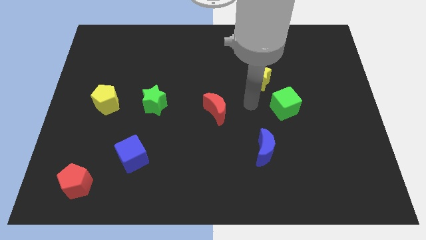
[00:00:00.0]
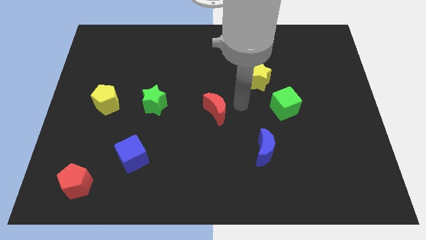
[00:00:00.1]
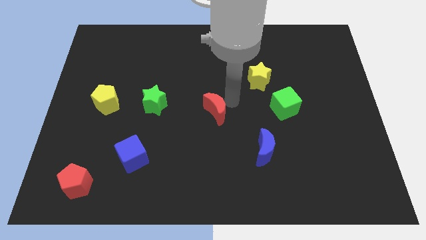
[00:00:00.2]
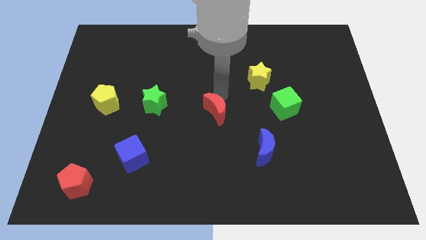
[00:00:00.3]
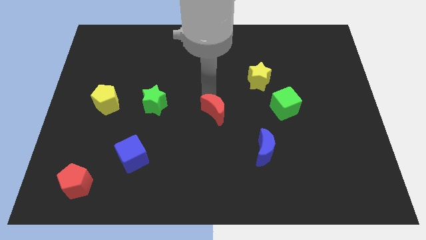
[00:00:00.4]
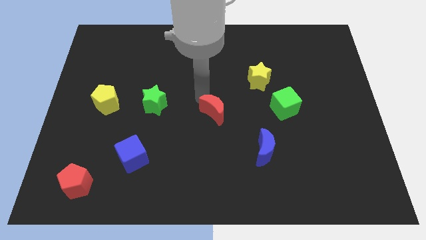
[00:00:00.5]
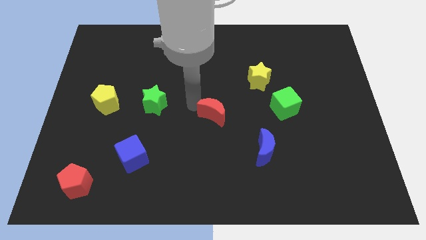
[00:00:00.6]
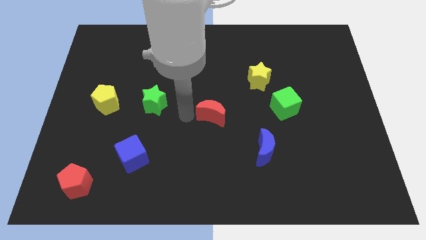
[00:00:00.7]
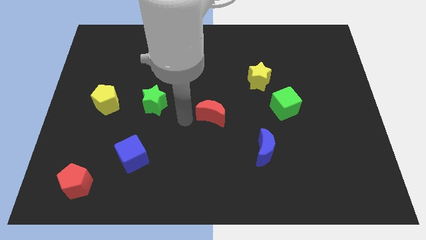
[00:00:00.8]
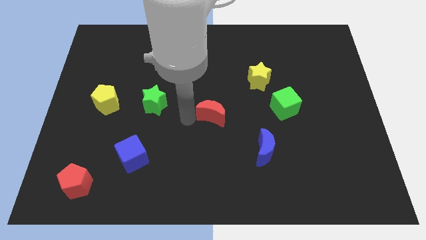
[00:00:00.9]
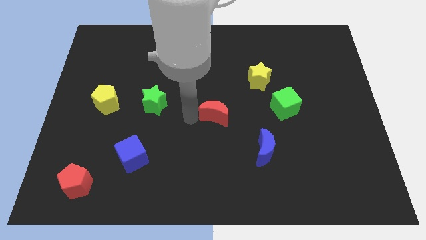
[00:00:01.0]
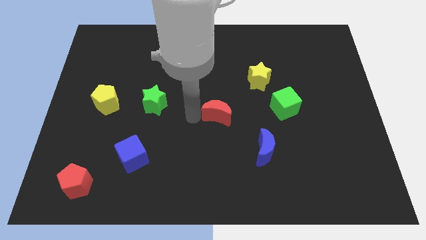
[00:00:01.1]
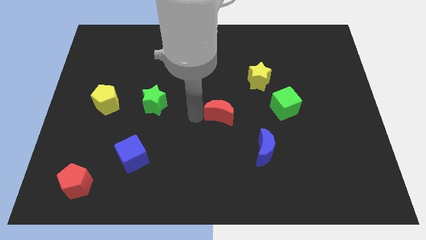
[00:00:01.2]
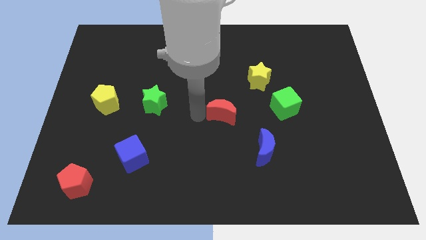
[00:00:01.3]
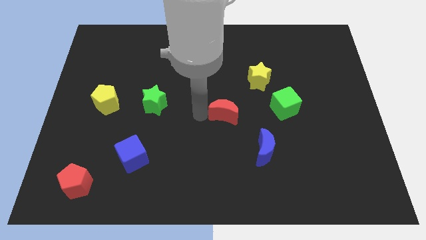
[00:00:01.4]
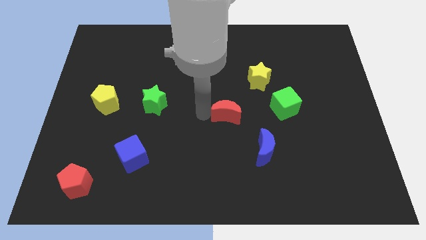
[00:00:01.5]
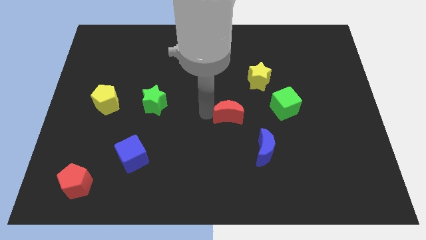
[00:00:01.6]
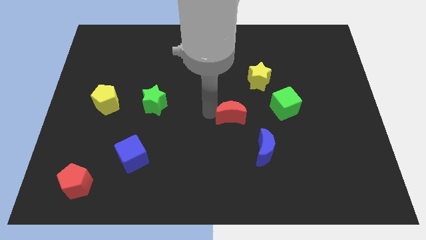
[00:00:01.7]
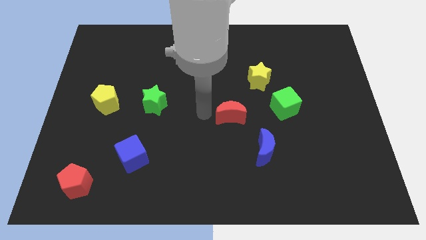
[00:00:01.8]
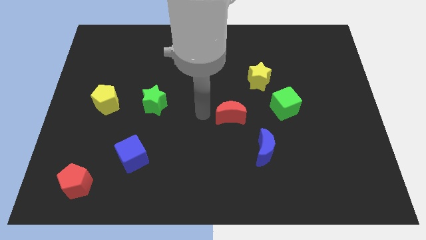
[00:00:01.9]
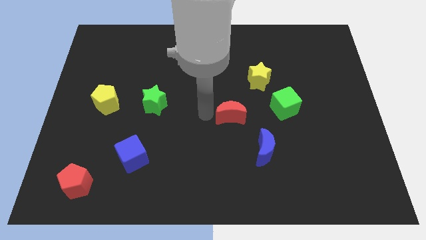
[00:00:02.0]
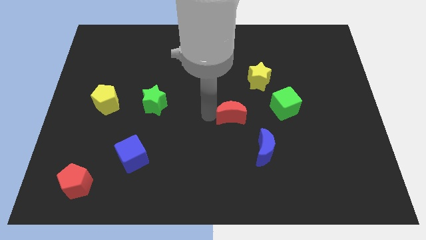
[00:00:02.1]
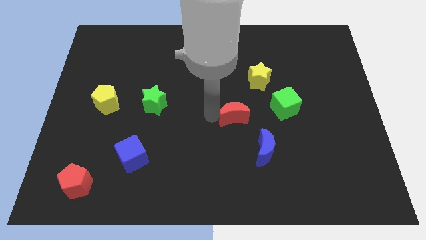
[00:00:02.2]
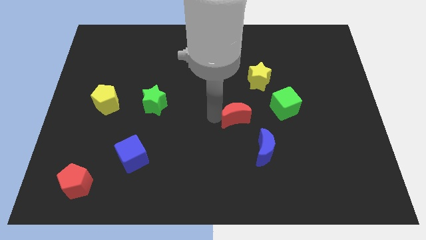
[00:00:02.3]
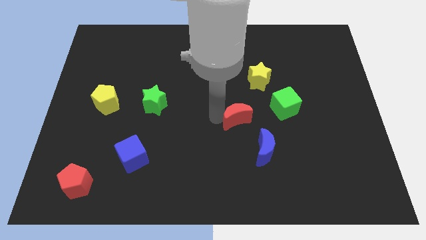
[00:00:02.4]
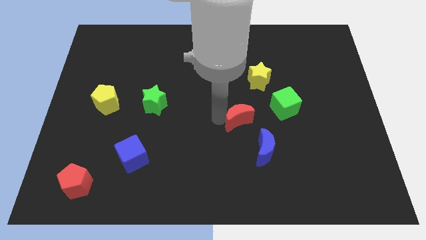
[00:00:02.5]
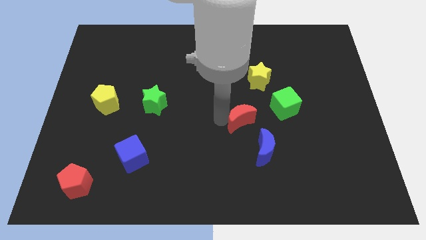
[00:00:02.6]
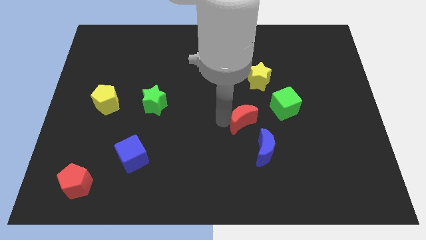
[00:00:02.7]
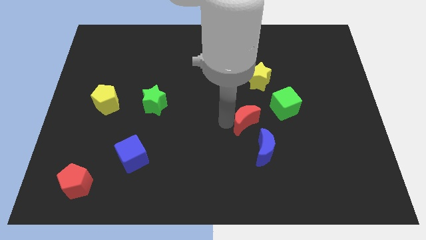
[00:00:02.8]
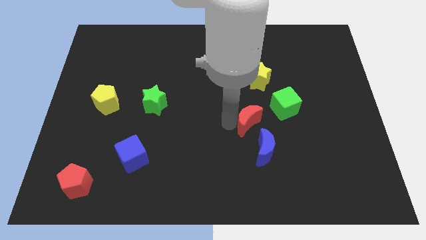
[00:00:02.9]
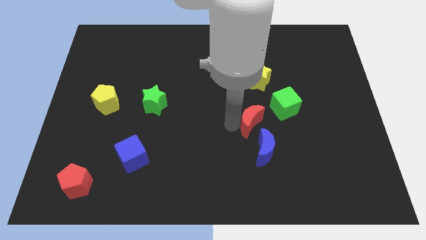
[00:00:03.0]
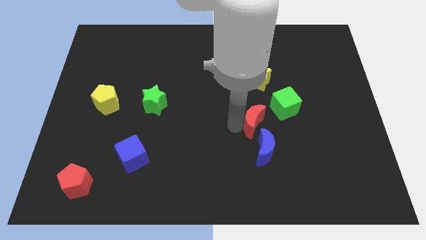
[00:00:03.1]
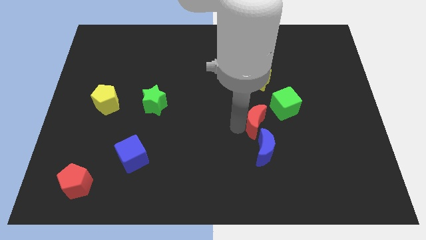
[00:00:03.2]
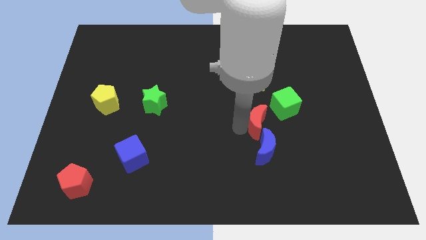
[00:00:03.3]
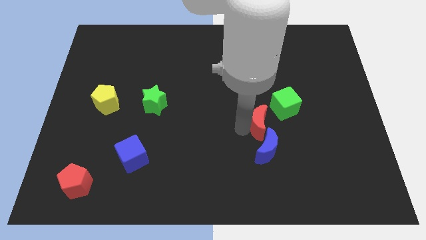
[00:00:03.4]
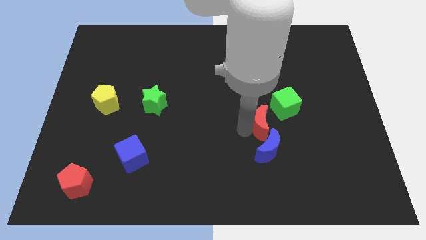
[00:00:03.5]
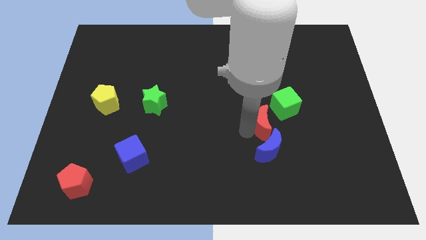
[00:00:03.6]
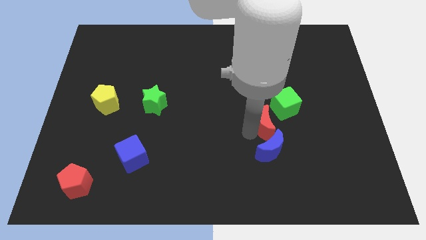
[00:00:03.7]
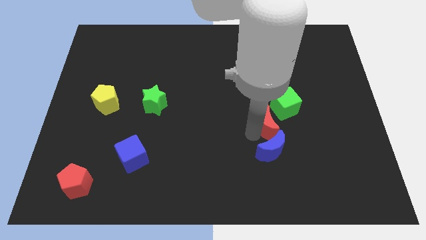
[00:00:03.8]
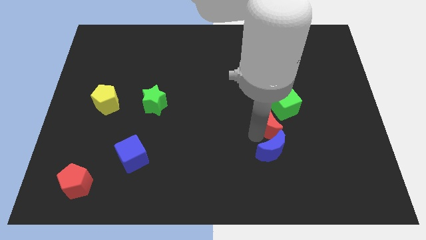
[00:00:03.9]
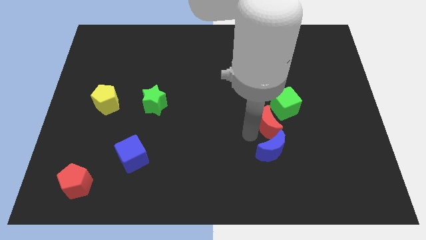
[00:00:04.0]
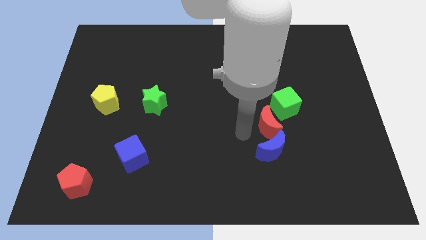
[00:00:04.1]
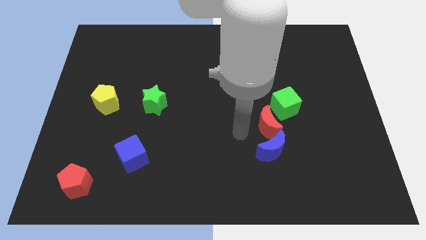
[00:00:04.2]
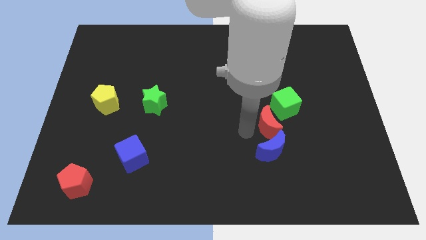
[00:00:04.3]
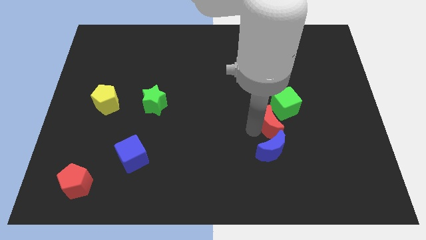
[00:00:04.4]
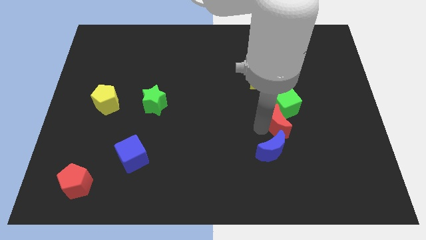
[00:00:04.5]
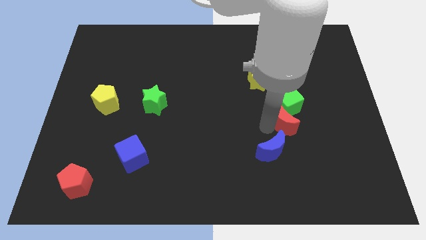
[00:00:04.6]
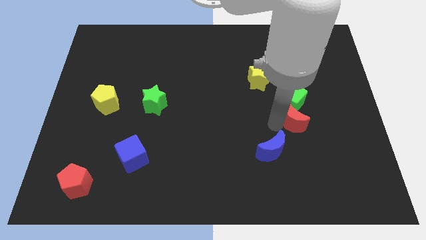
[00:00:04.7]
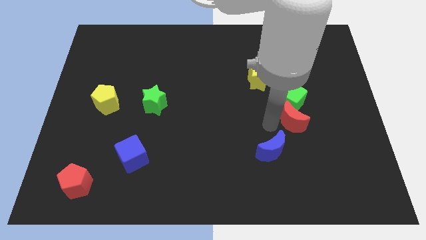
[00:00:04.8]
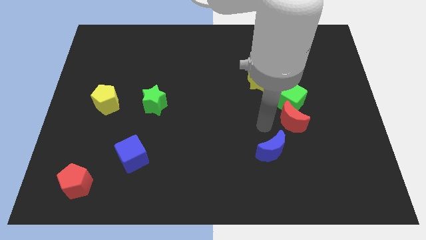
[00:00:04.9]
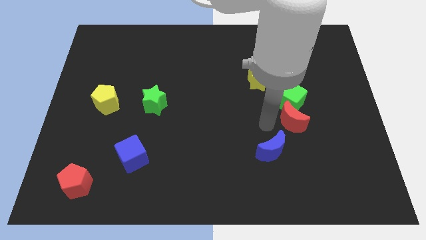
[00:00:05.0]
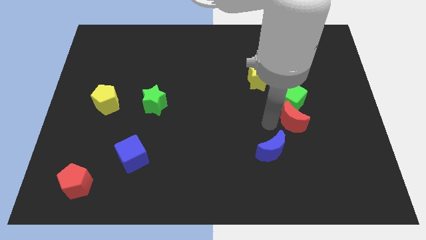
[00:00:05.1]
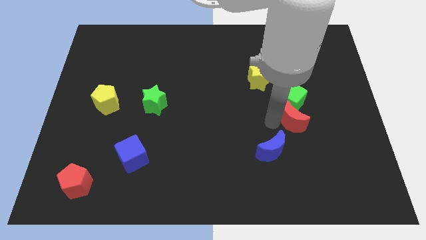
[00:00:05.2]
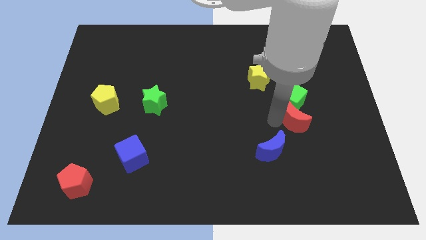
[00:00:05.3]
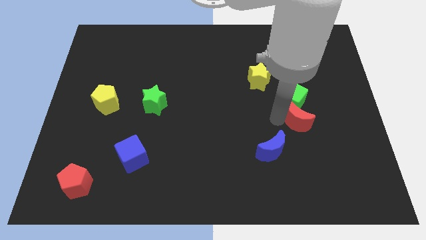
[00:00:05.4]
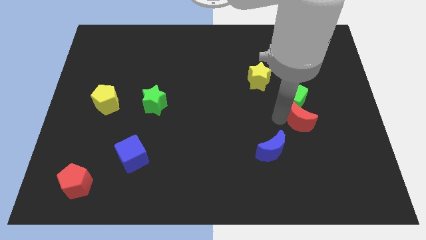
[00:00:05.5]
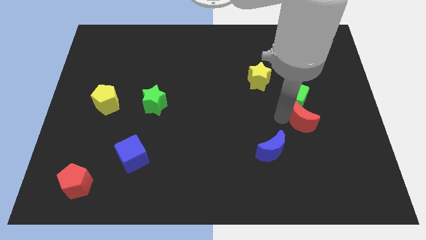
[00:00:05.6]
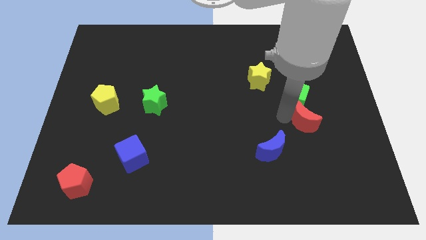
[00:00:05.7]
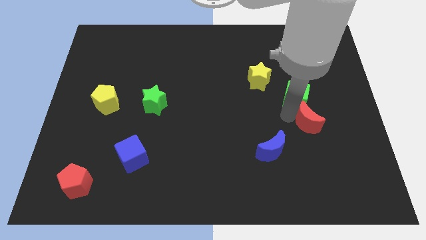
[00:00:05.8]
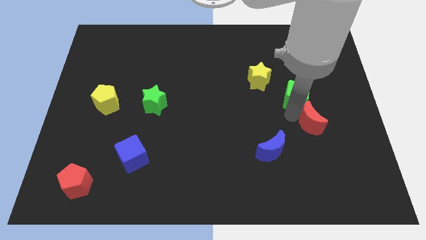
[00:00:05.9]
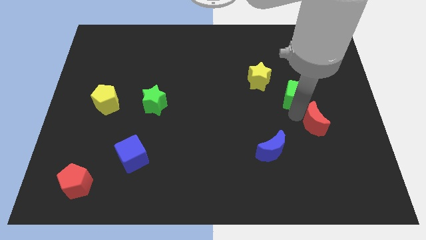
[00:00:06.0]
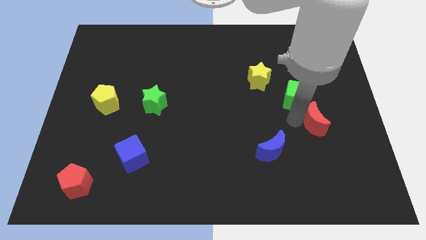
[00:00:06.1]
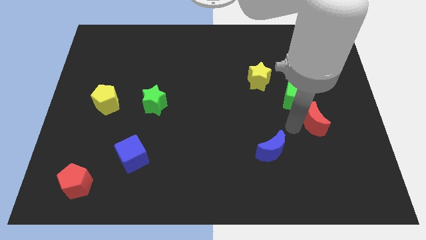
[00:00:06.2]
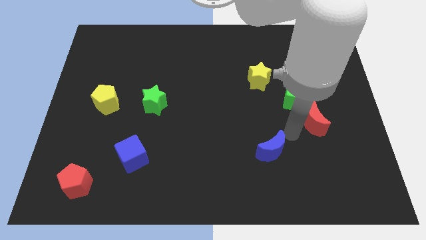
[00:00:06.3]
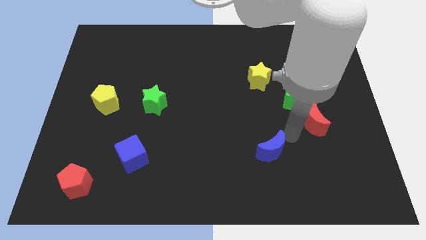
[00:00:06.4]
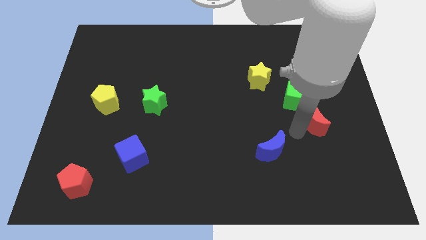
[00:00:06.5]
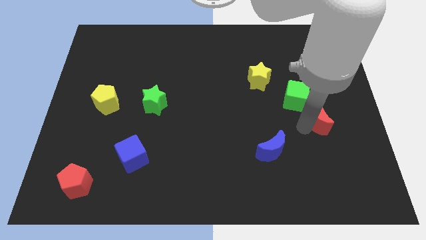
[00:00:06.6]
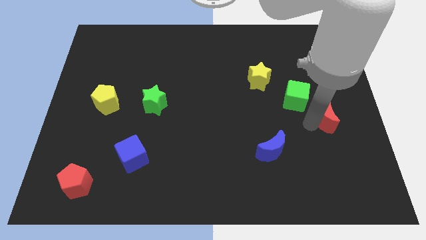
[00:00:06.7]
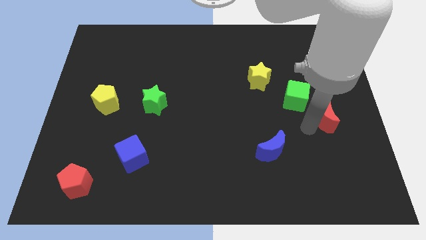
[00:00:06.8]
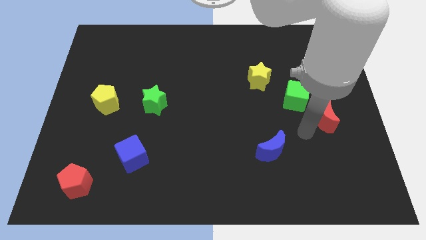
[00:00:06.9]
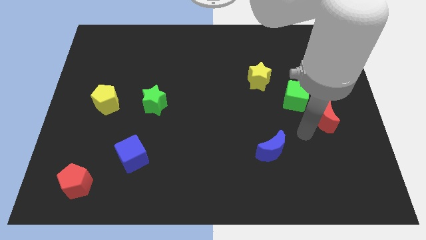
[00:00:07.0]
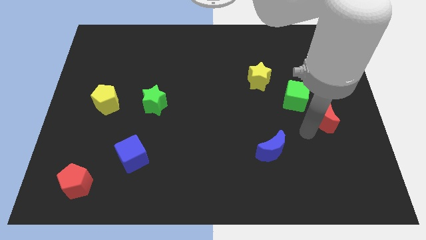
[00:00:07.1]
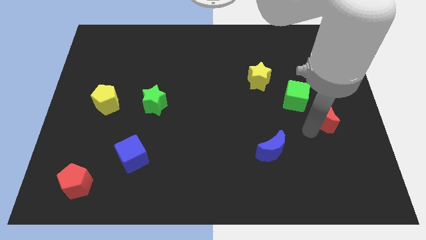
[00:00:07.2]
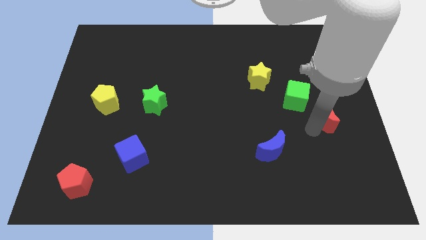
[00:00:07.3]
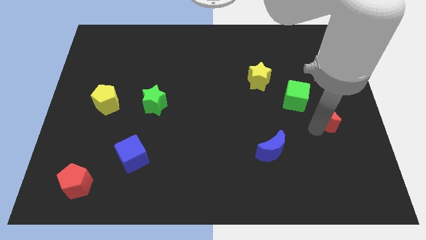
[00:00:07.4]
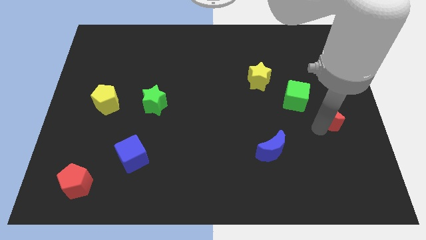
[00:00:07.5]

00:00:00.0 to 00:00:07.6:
put the red moon to the right side of the board
